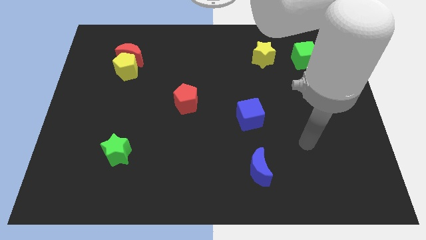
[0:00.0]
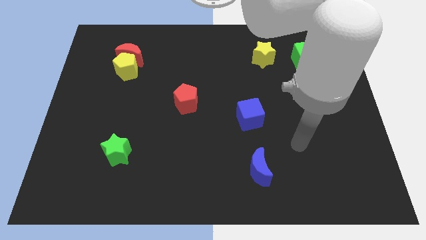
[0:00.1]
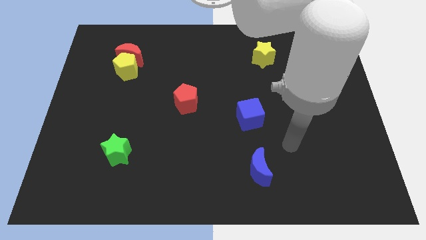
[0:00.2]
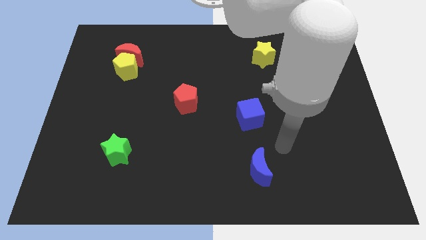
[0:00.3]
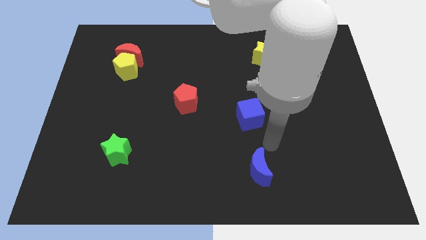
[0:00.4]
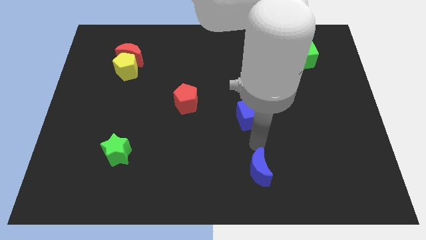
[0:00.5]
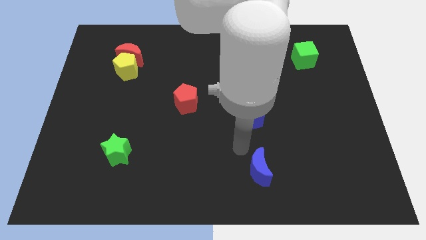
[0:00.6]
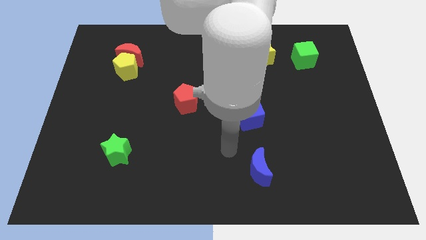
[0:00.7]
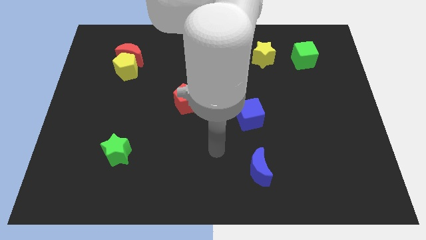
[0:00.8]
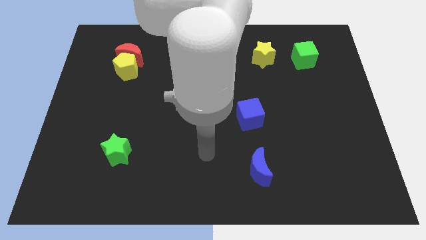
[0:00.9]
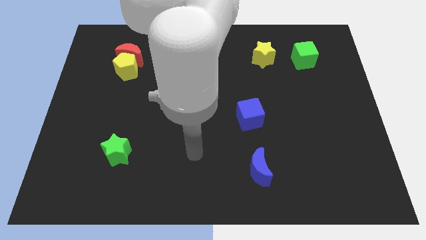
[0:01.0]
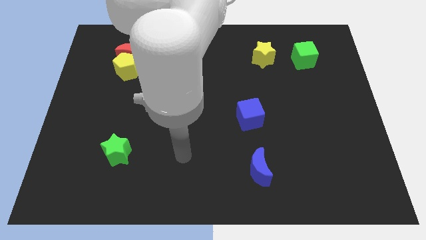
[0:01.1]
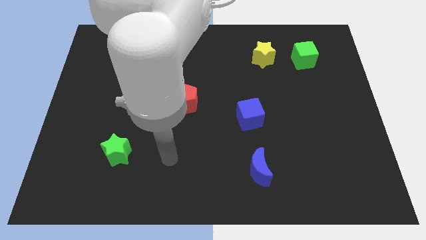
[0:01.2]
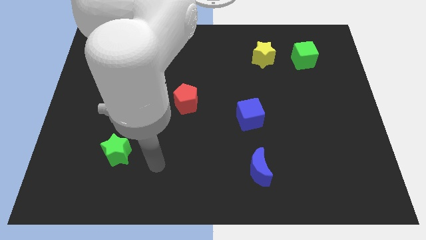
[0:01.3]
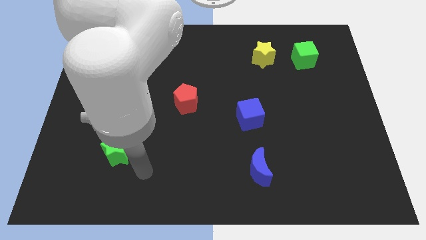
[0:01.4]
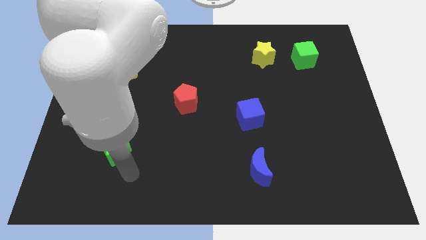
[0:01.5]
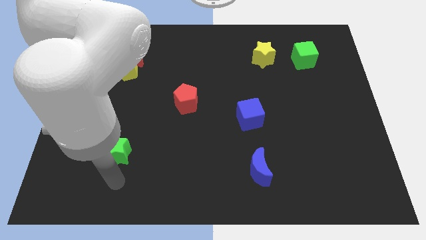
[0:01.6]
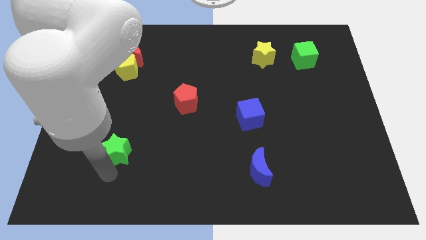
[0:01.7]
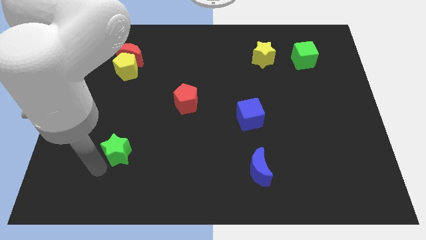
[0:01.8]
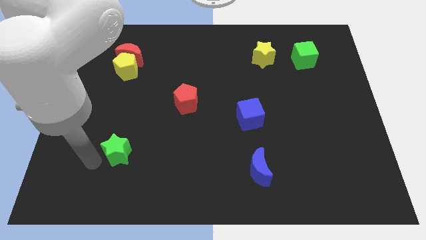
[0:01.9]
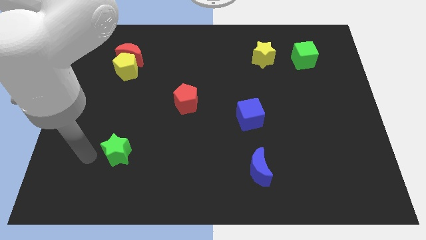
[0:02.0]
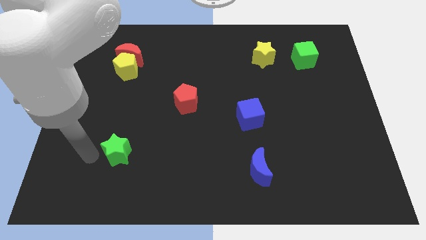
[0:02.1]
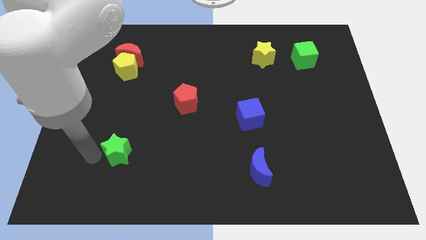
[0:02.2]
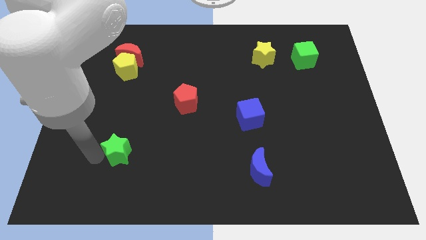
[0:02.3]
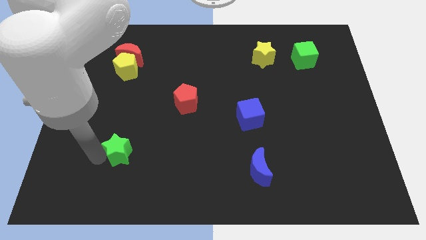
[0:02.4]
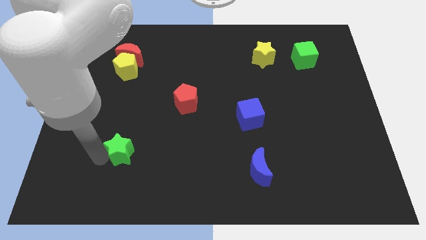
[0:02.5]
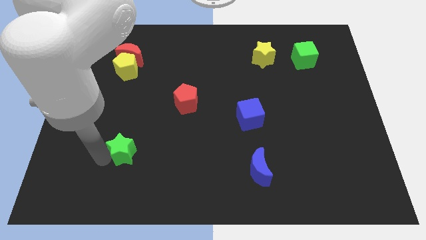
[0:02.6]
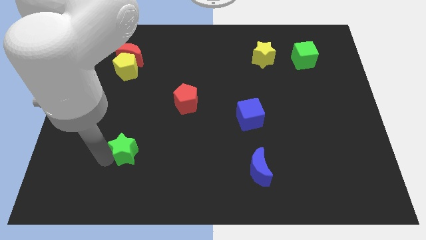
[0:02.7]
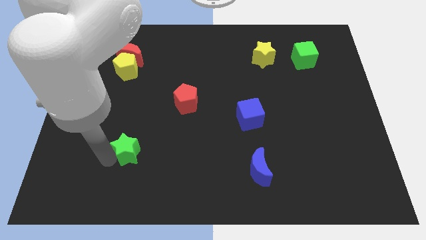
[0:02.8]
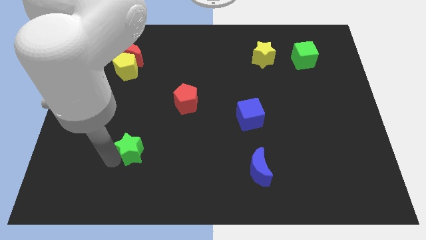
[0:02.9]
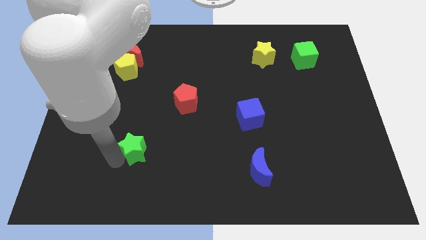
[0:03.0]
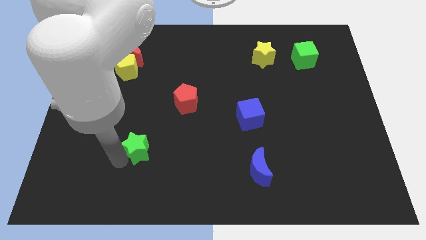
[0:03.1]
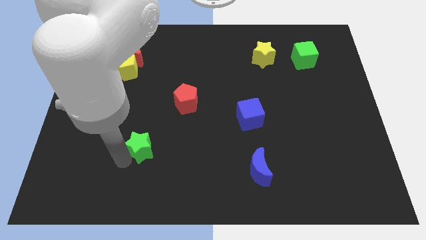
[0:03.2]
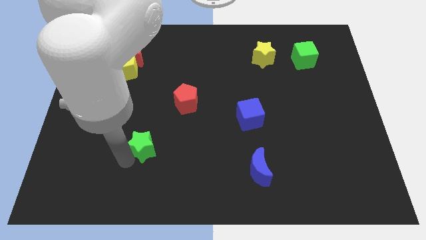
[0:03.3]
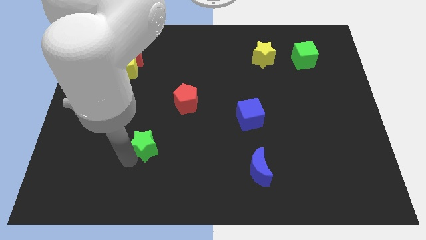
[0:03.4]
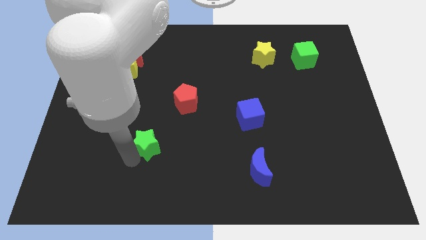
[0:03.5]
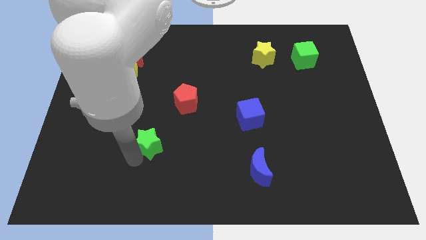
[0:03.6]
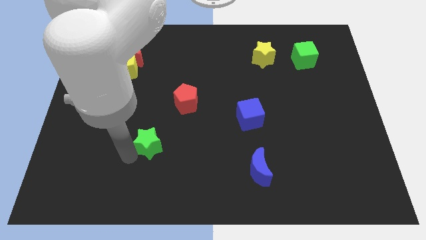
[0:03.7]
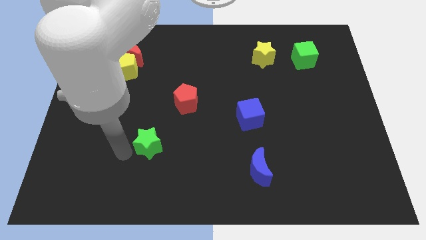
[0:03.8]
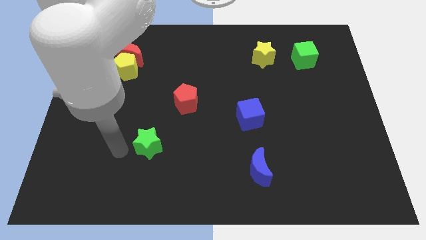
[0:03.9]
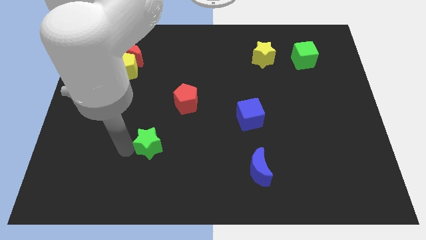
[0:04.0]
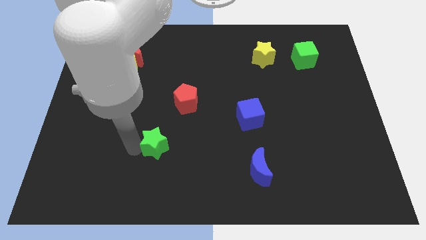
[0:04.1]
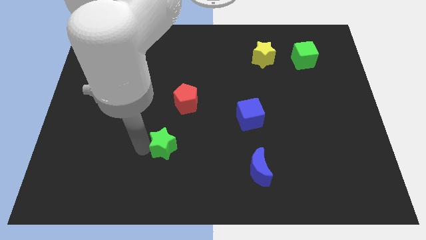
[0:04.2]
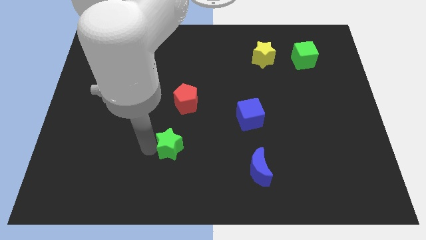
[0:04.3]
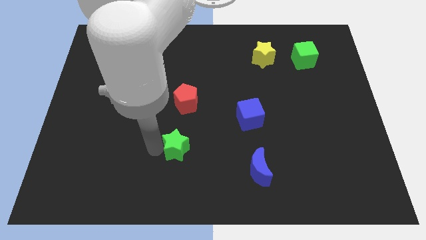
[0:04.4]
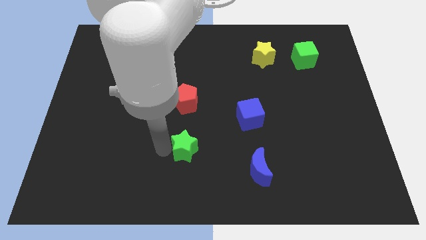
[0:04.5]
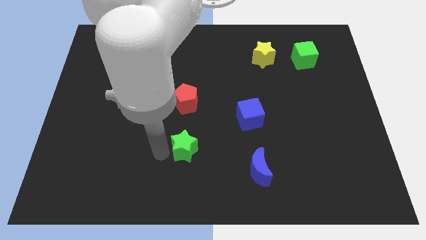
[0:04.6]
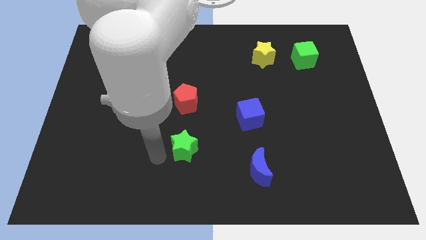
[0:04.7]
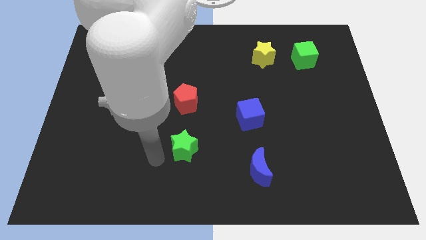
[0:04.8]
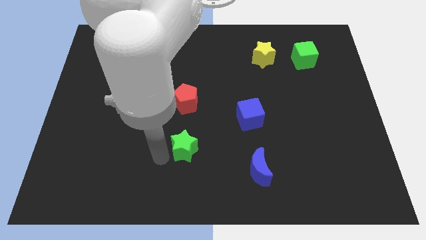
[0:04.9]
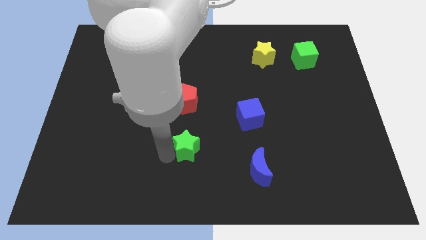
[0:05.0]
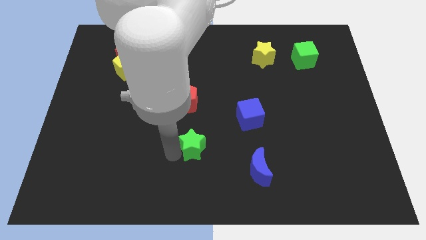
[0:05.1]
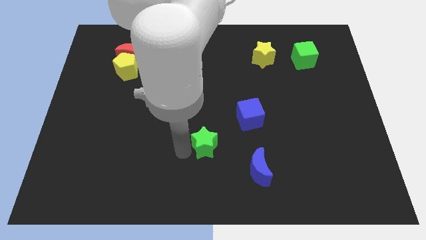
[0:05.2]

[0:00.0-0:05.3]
put the green star to the bottom left side of the blue cube

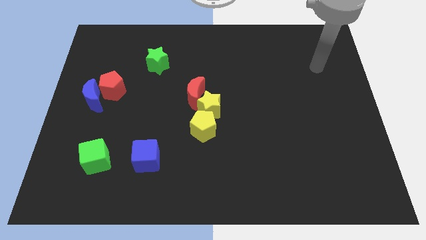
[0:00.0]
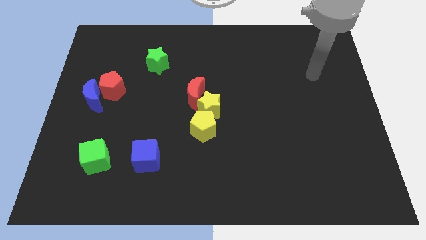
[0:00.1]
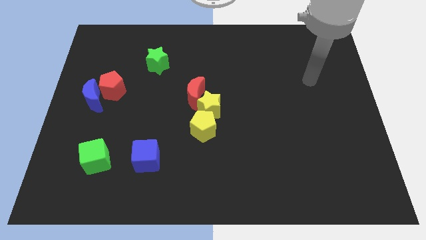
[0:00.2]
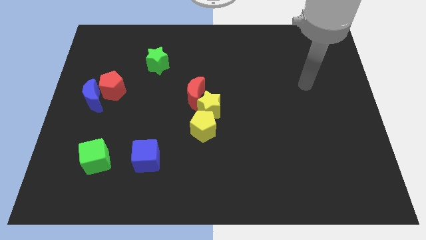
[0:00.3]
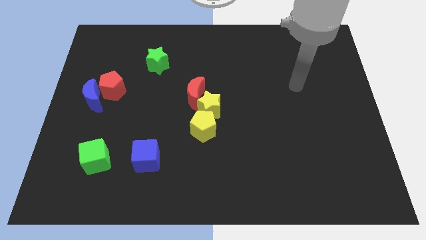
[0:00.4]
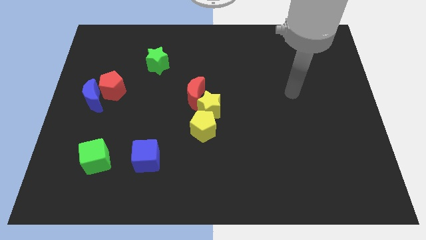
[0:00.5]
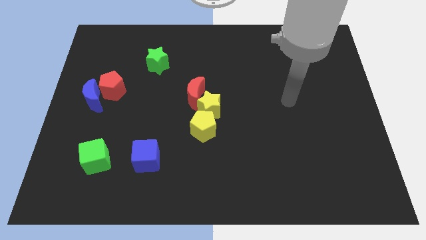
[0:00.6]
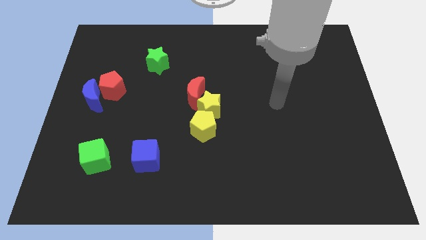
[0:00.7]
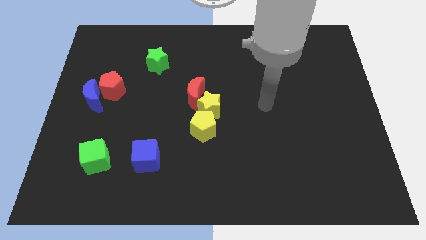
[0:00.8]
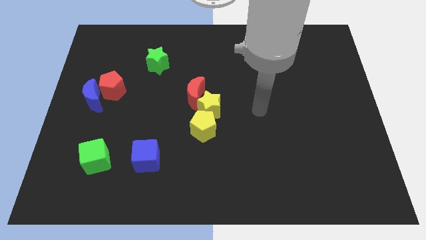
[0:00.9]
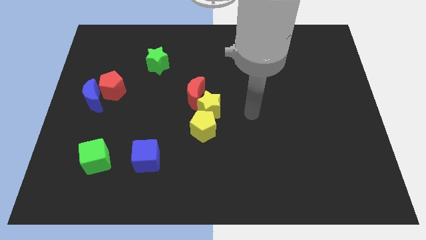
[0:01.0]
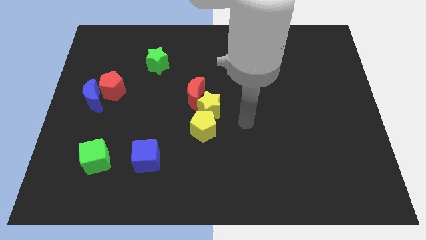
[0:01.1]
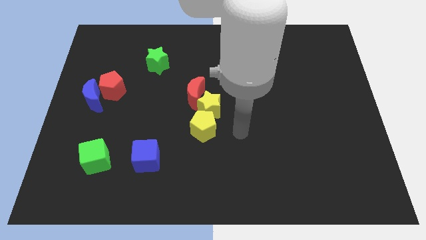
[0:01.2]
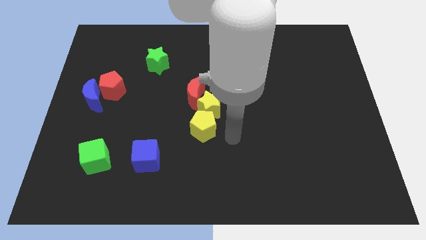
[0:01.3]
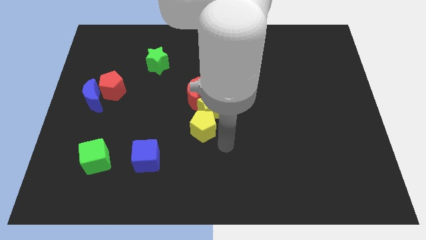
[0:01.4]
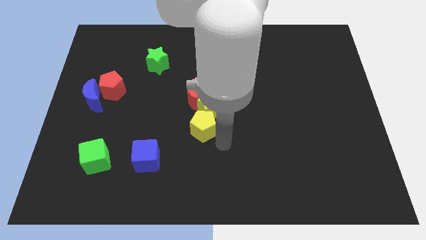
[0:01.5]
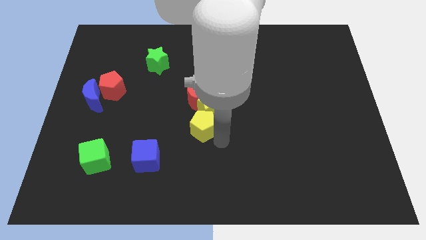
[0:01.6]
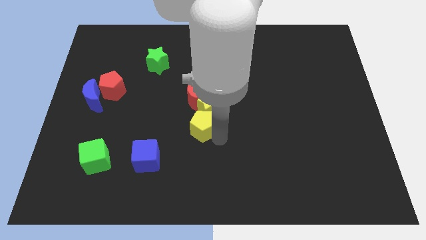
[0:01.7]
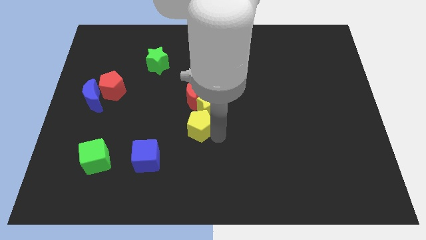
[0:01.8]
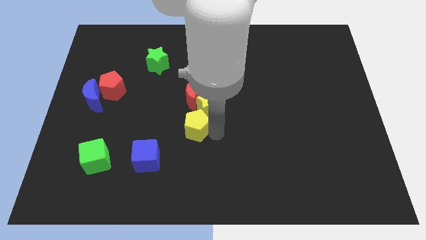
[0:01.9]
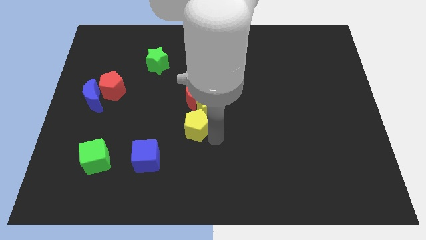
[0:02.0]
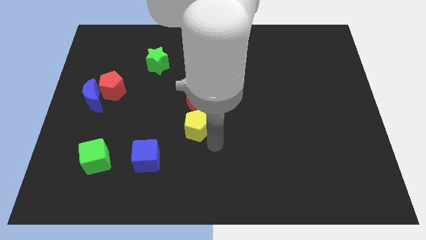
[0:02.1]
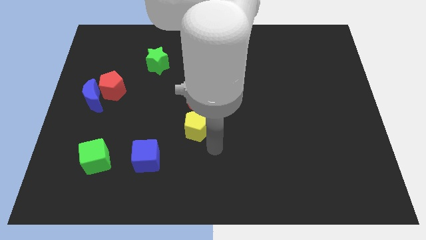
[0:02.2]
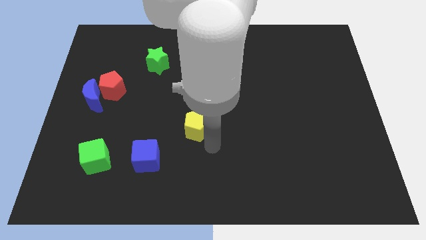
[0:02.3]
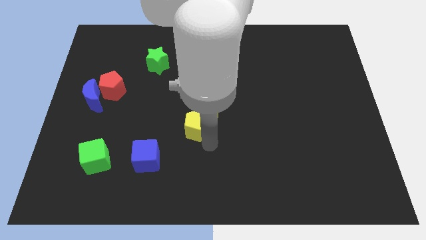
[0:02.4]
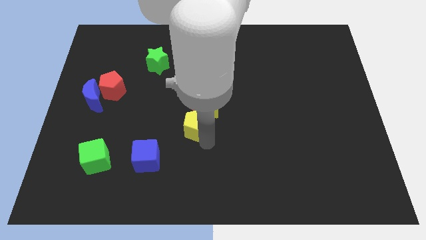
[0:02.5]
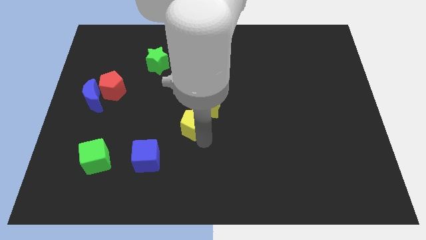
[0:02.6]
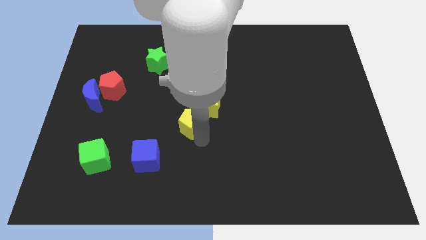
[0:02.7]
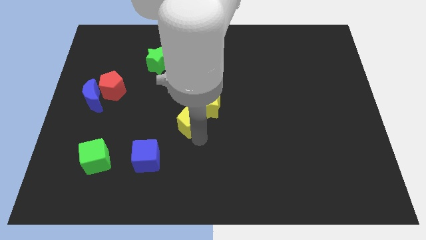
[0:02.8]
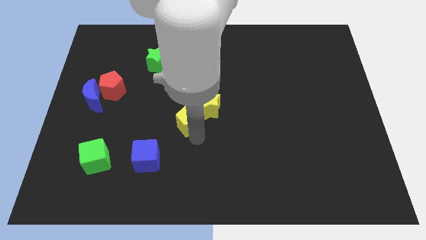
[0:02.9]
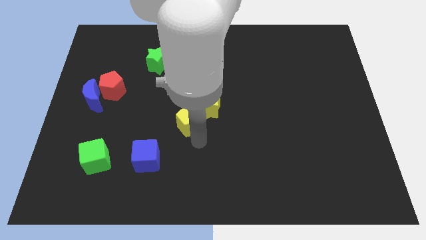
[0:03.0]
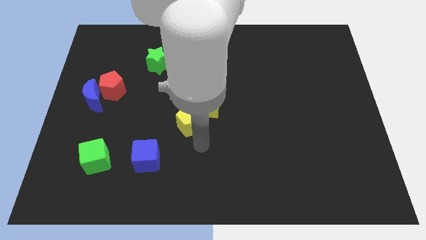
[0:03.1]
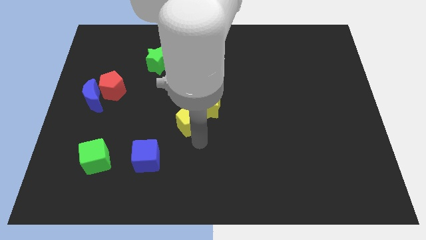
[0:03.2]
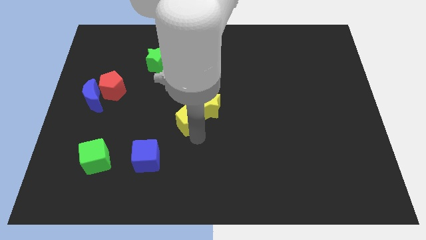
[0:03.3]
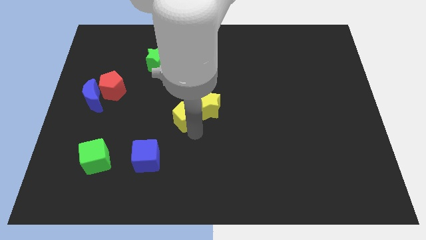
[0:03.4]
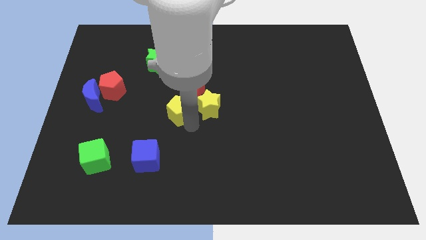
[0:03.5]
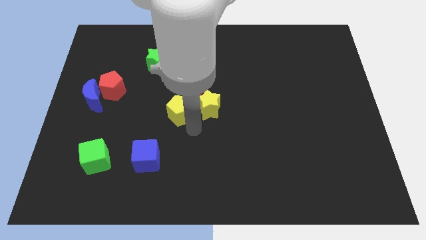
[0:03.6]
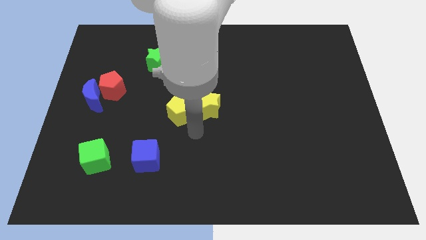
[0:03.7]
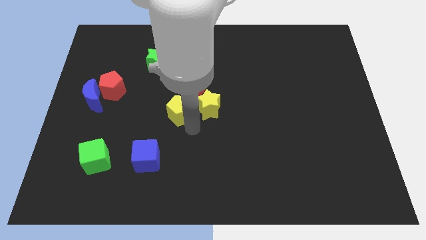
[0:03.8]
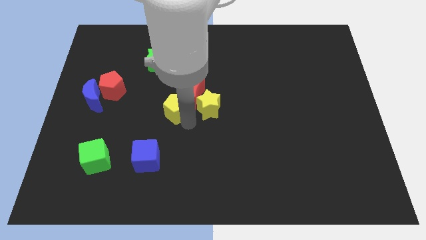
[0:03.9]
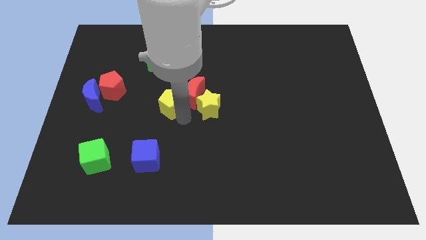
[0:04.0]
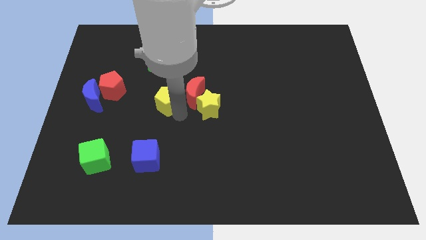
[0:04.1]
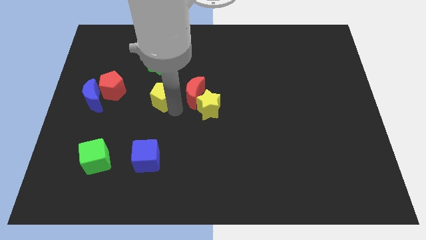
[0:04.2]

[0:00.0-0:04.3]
put the yellow pentagon to the right of the red pentagon
